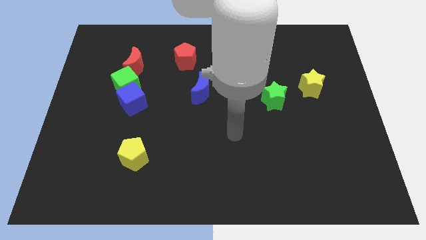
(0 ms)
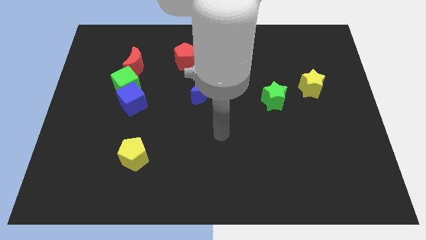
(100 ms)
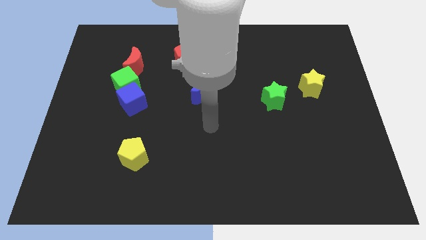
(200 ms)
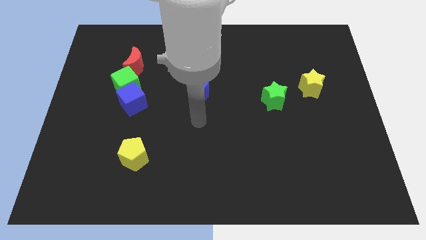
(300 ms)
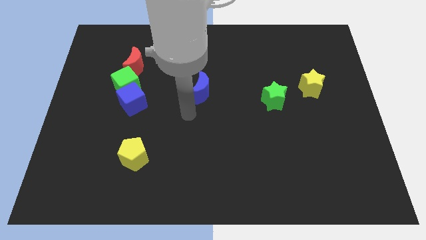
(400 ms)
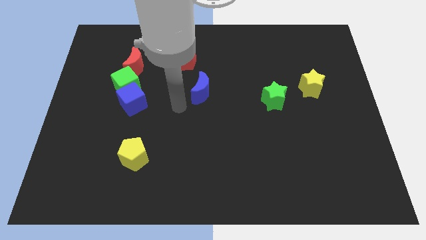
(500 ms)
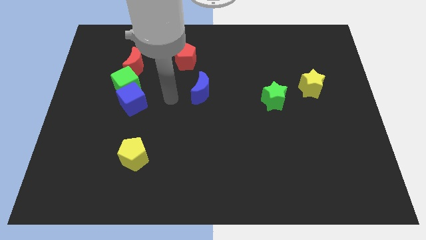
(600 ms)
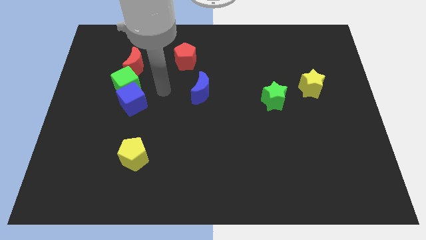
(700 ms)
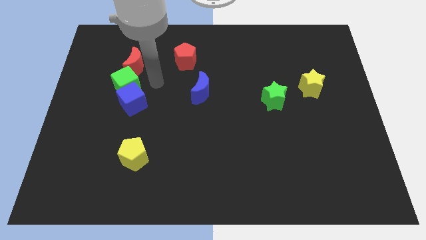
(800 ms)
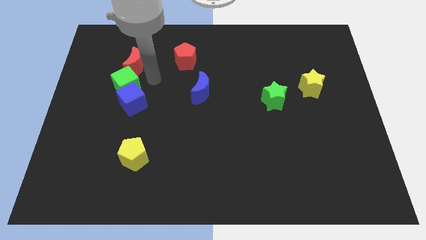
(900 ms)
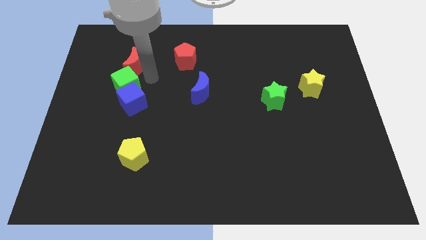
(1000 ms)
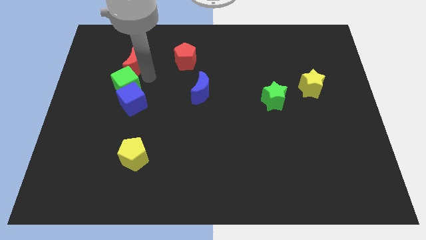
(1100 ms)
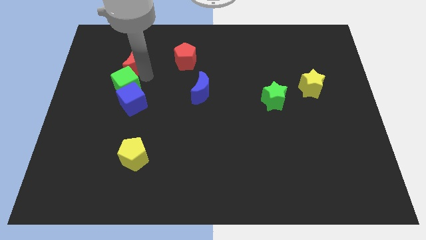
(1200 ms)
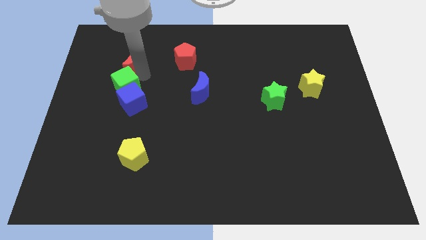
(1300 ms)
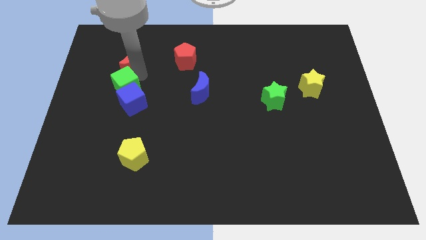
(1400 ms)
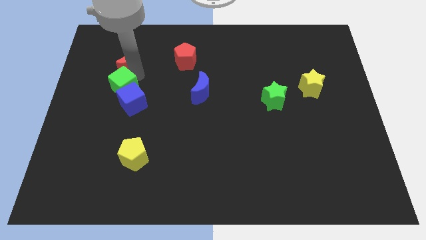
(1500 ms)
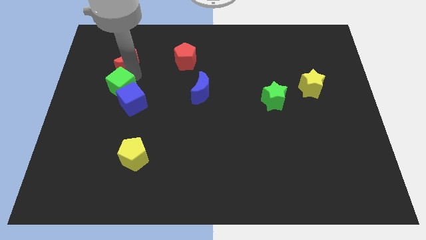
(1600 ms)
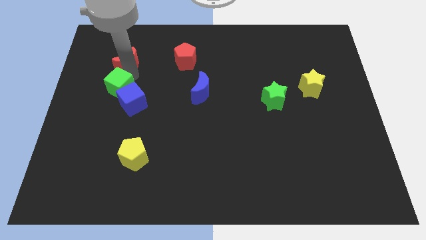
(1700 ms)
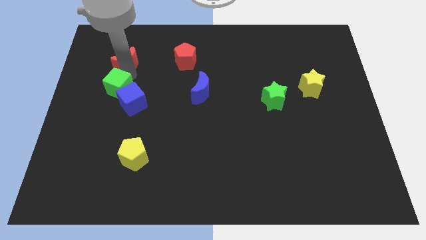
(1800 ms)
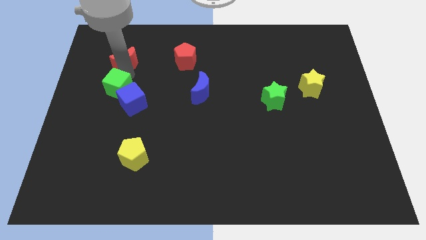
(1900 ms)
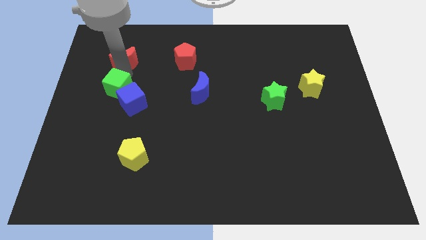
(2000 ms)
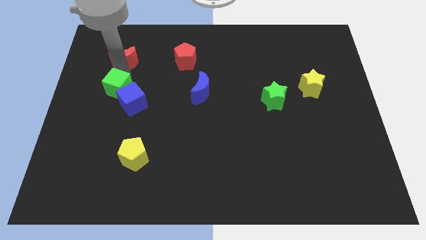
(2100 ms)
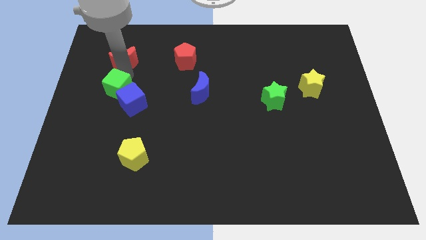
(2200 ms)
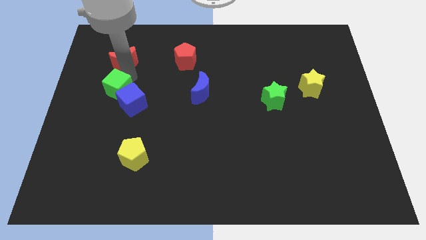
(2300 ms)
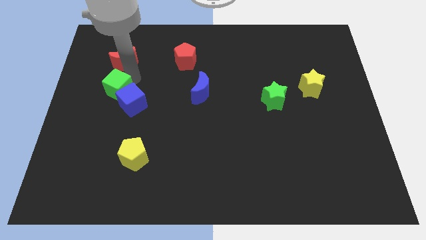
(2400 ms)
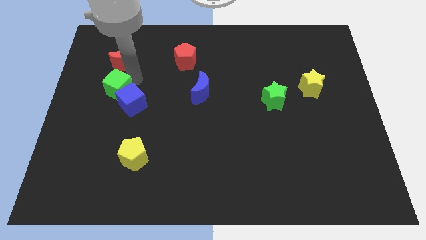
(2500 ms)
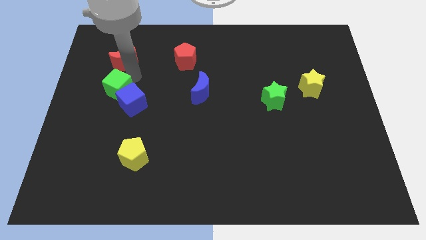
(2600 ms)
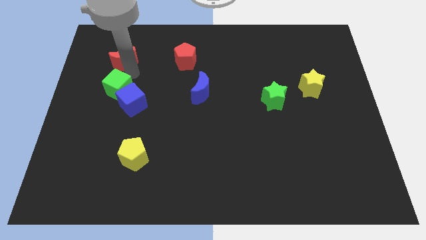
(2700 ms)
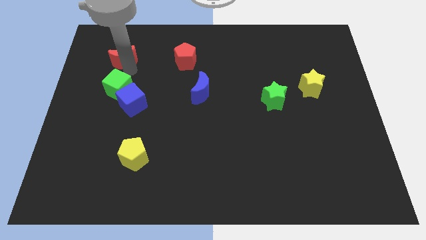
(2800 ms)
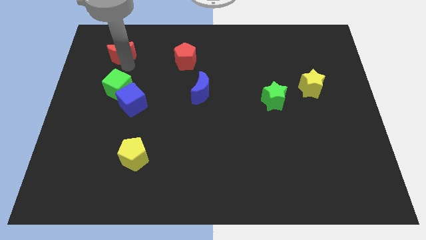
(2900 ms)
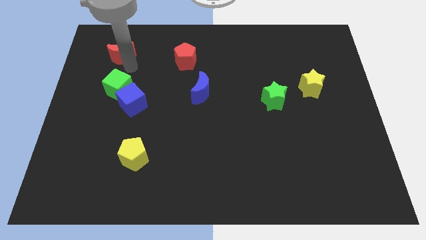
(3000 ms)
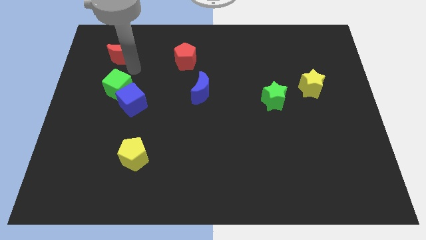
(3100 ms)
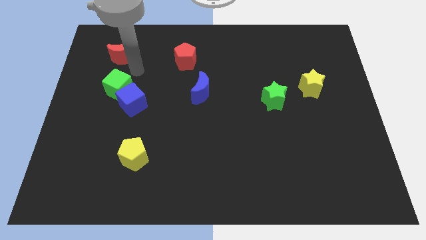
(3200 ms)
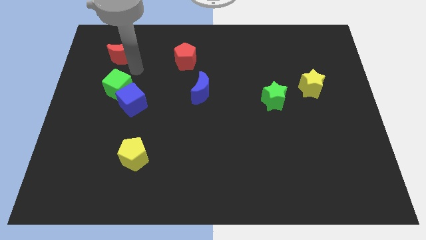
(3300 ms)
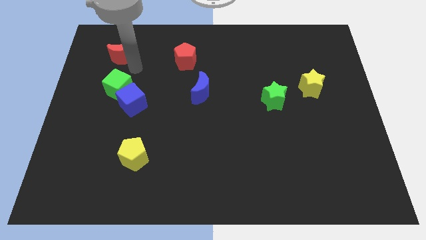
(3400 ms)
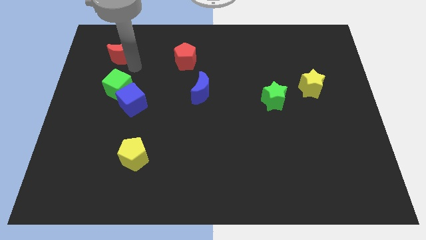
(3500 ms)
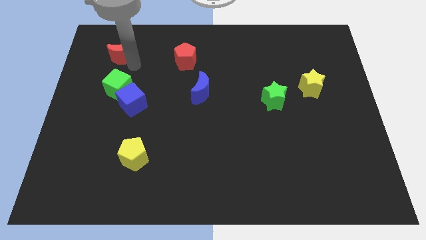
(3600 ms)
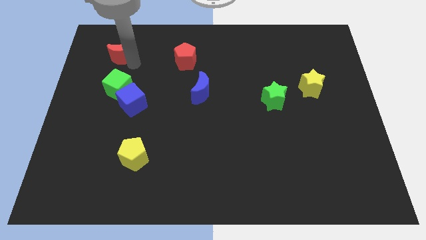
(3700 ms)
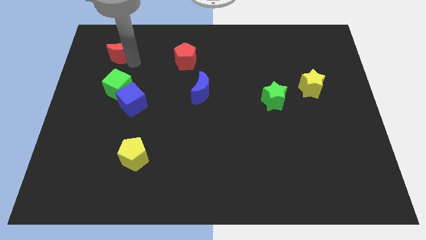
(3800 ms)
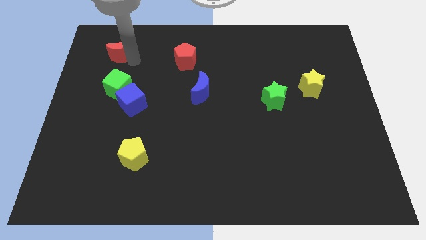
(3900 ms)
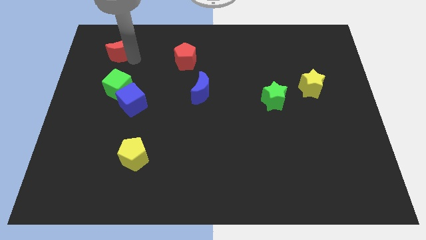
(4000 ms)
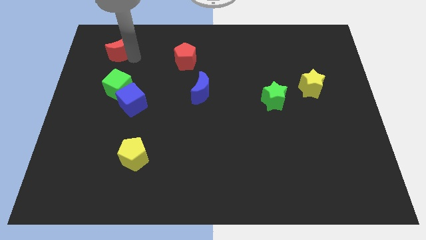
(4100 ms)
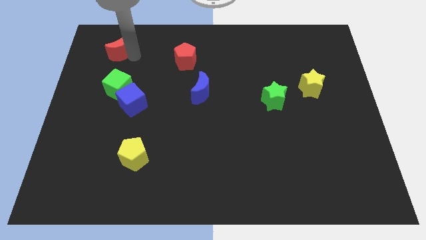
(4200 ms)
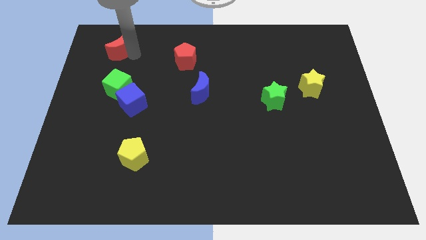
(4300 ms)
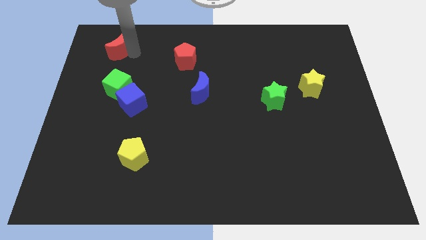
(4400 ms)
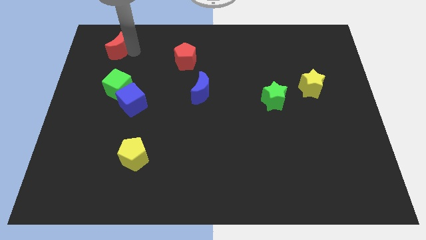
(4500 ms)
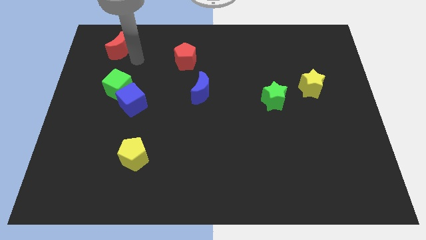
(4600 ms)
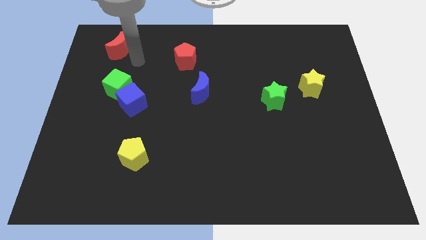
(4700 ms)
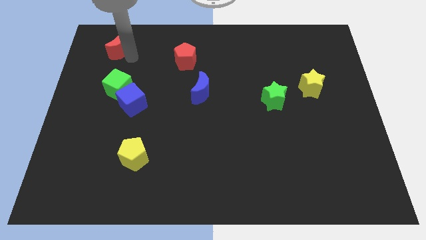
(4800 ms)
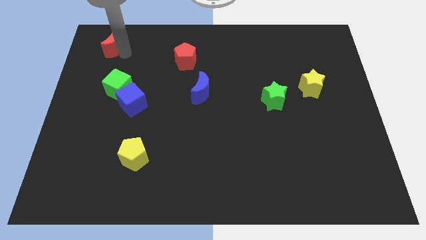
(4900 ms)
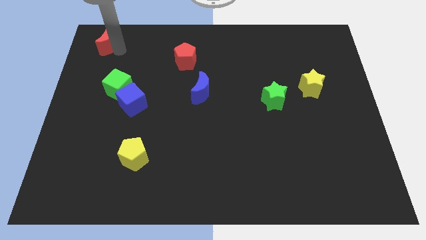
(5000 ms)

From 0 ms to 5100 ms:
put the red moon to the top left of the board

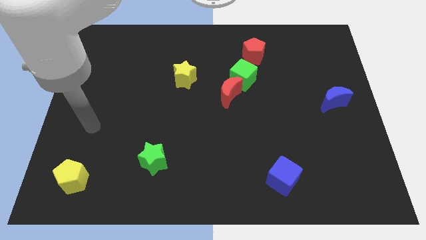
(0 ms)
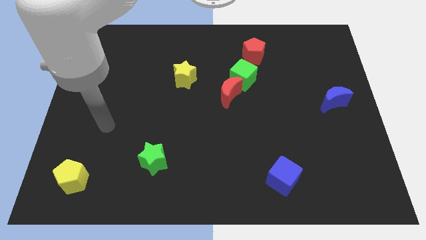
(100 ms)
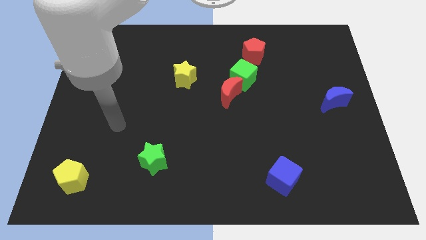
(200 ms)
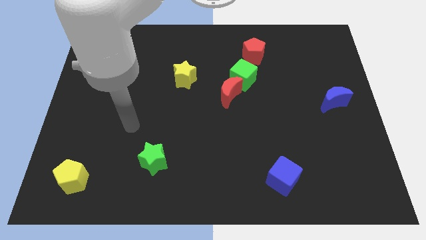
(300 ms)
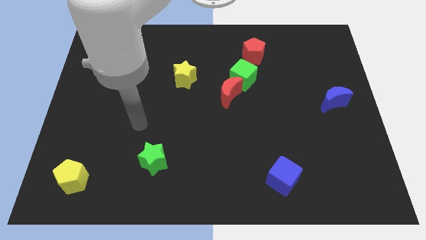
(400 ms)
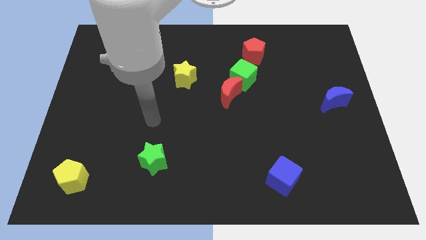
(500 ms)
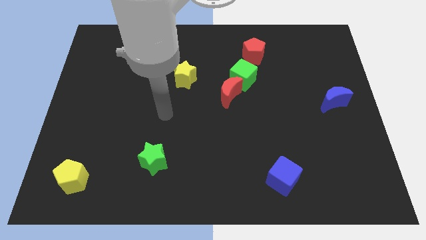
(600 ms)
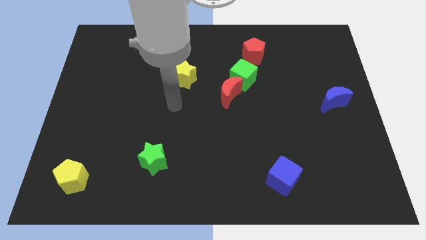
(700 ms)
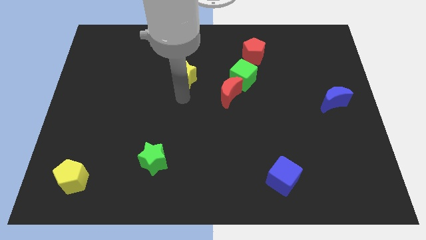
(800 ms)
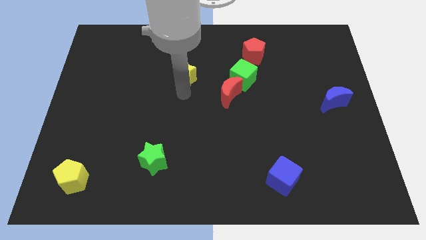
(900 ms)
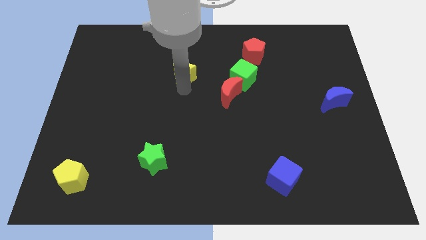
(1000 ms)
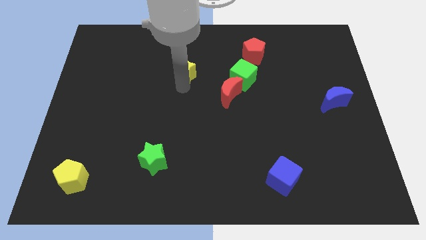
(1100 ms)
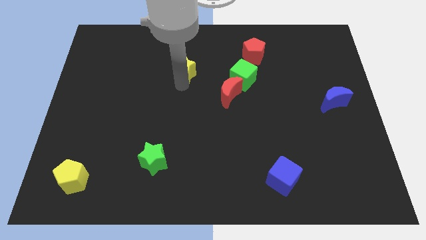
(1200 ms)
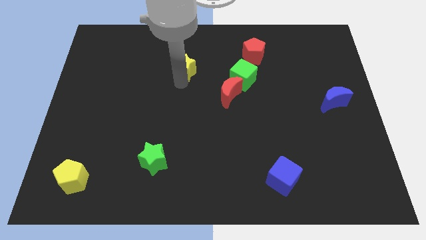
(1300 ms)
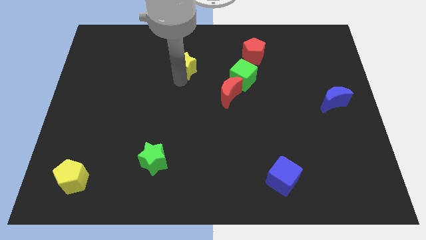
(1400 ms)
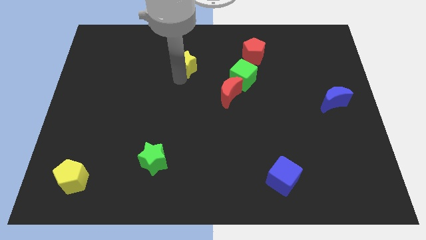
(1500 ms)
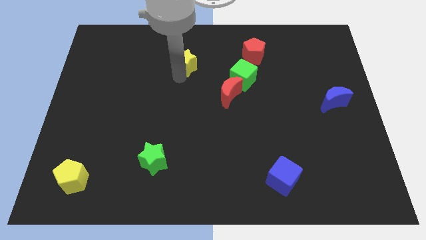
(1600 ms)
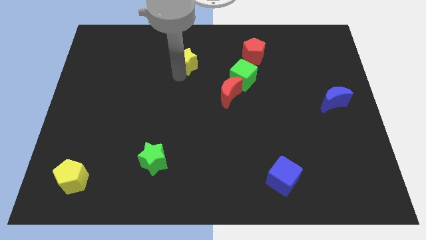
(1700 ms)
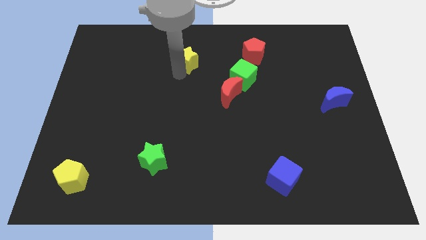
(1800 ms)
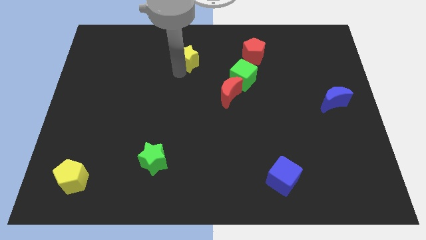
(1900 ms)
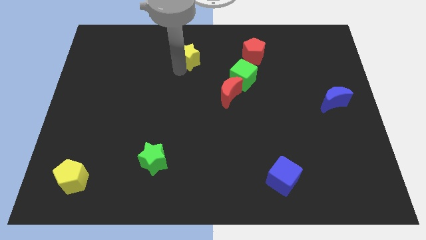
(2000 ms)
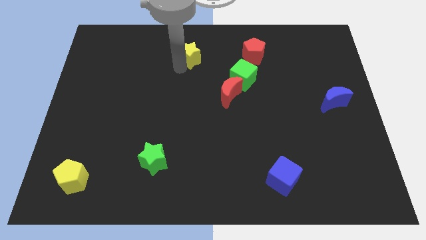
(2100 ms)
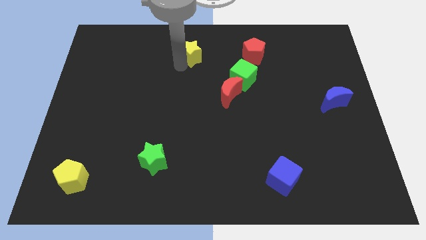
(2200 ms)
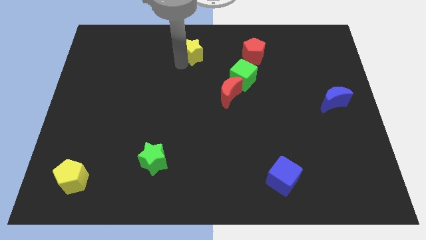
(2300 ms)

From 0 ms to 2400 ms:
move the yellow star to the towards your base

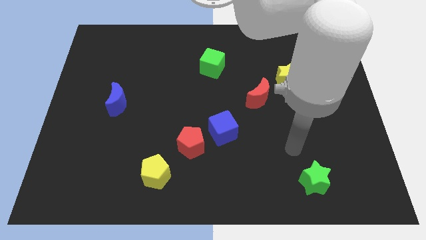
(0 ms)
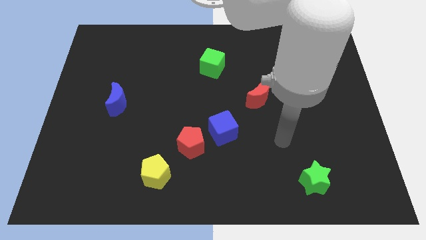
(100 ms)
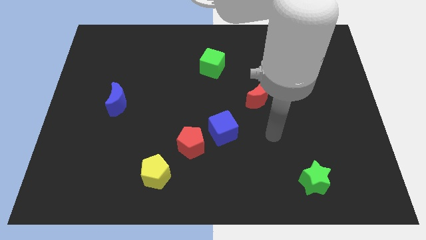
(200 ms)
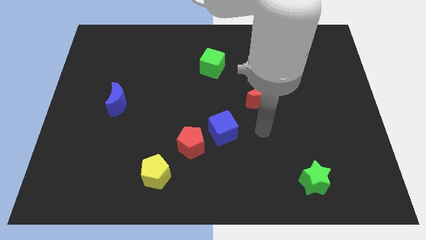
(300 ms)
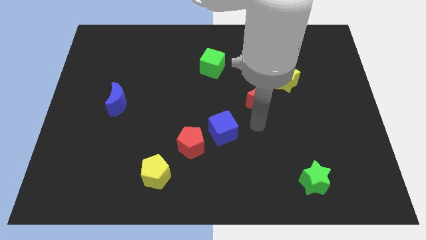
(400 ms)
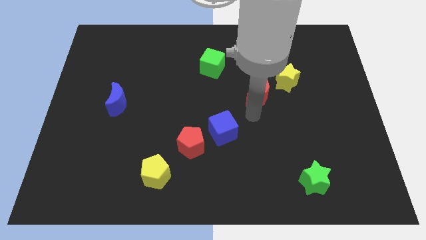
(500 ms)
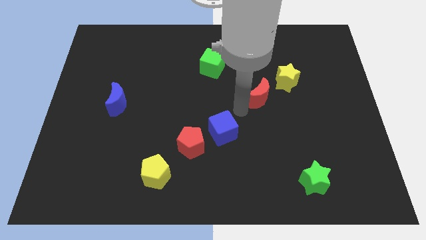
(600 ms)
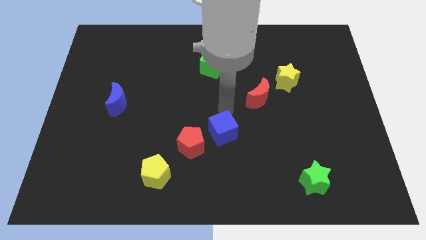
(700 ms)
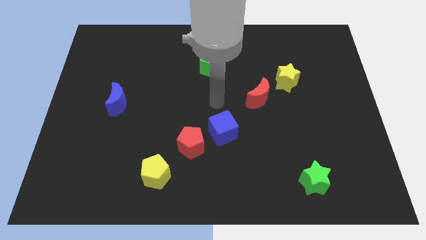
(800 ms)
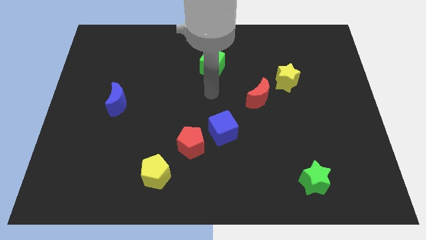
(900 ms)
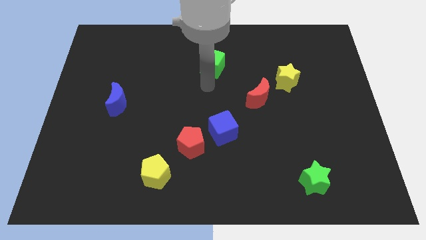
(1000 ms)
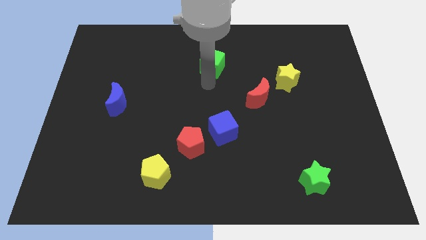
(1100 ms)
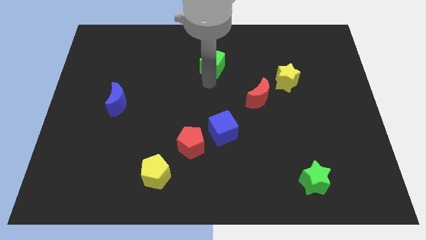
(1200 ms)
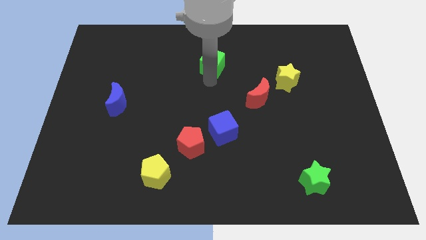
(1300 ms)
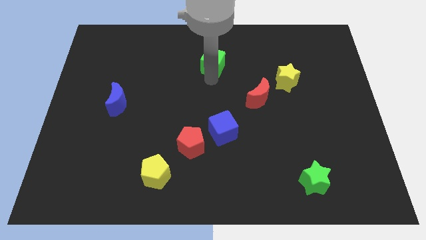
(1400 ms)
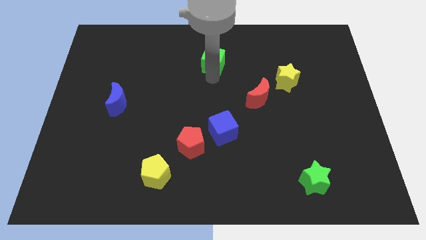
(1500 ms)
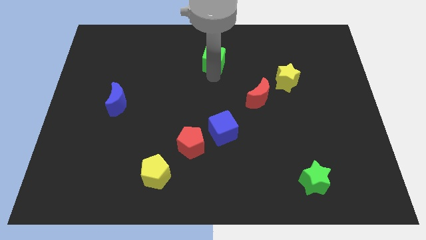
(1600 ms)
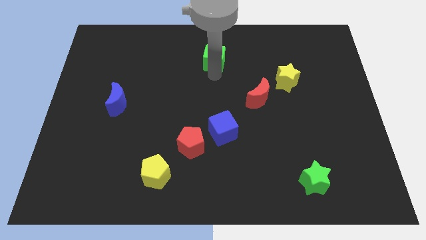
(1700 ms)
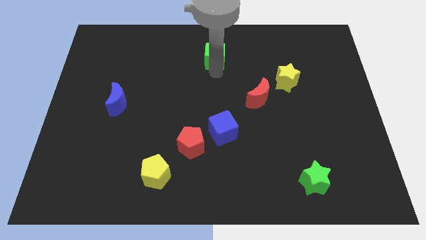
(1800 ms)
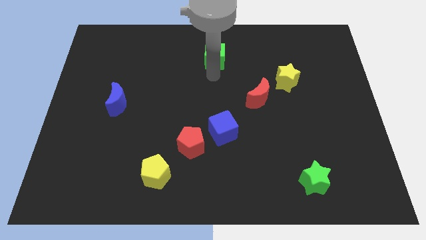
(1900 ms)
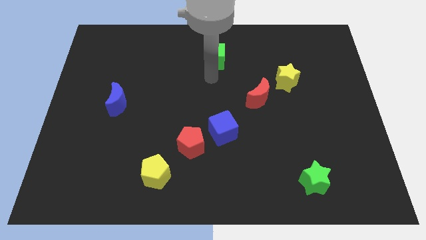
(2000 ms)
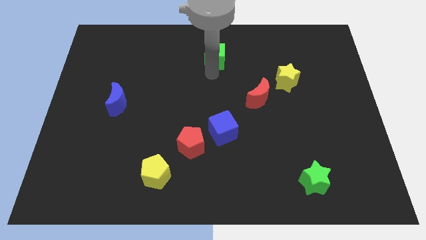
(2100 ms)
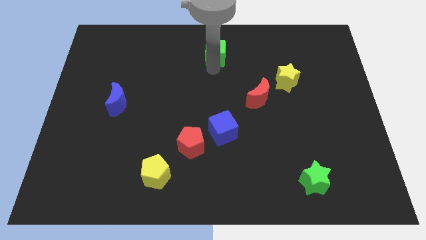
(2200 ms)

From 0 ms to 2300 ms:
slide the green cube to the top
